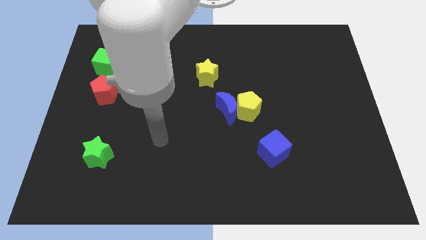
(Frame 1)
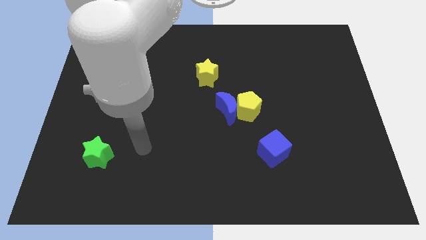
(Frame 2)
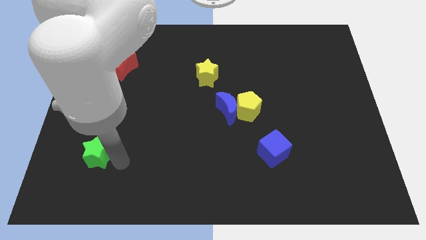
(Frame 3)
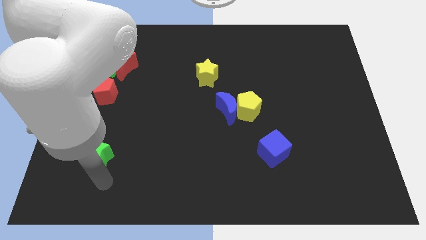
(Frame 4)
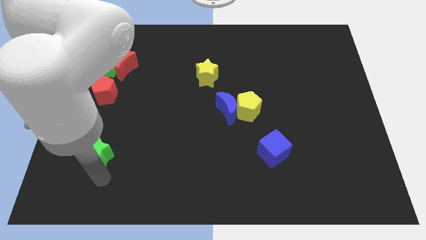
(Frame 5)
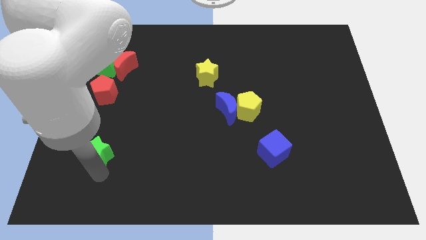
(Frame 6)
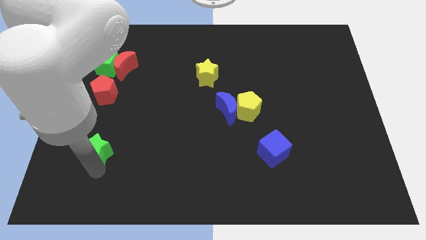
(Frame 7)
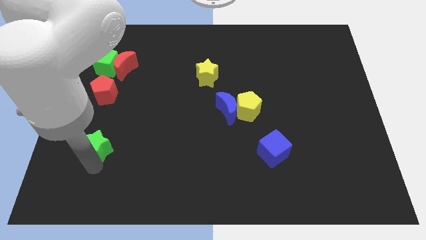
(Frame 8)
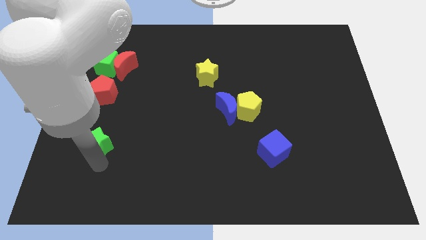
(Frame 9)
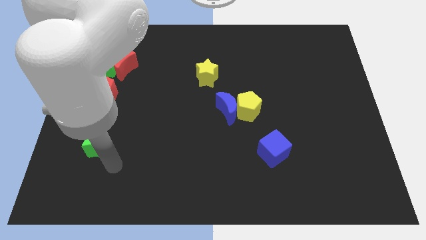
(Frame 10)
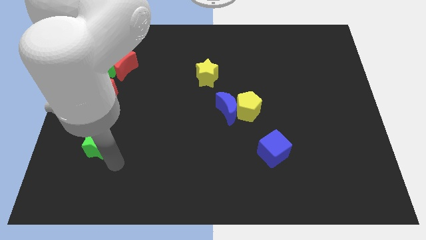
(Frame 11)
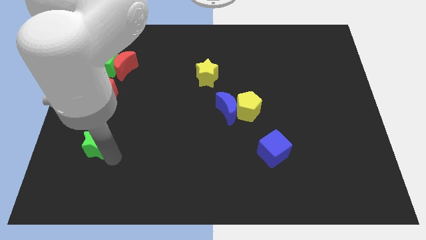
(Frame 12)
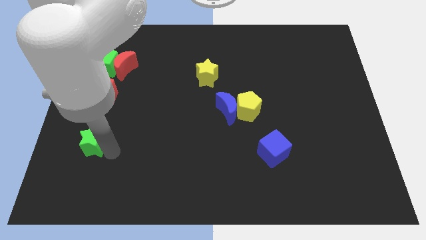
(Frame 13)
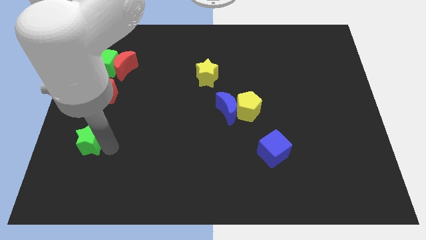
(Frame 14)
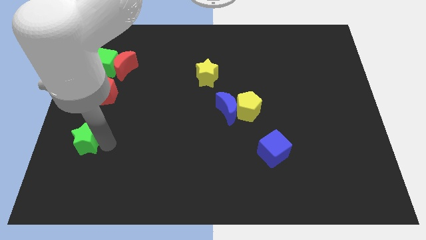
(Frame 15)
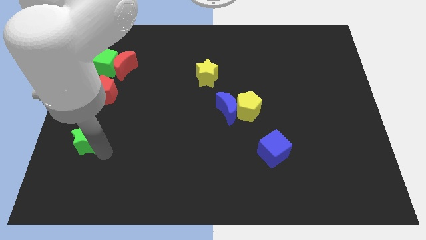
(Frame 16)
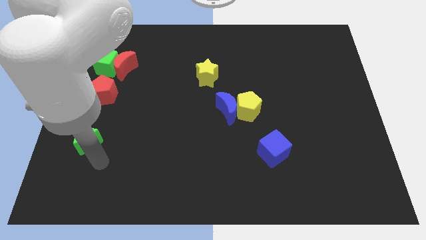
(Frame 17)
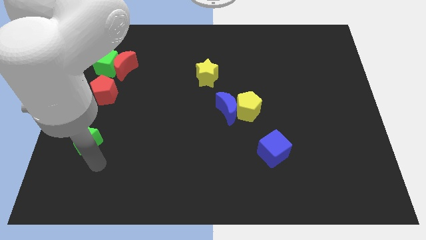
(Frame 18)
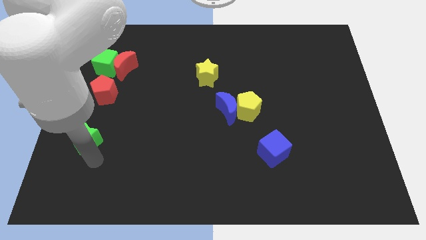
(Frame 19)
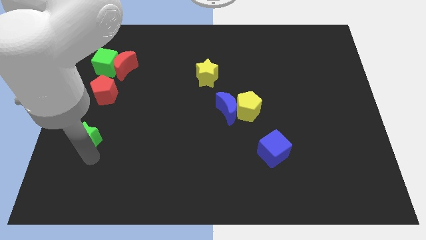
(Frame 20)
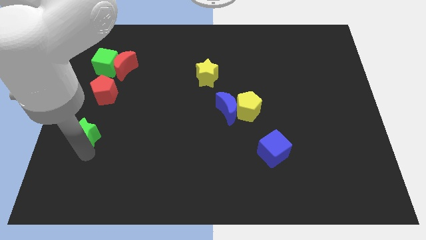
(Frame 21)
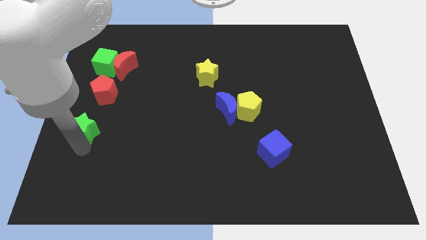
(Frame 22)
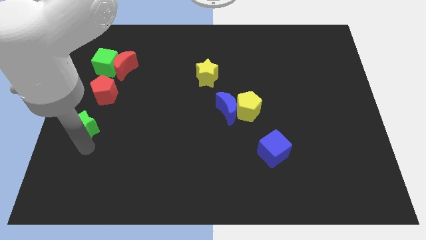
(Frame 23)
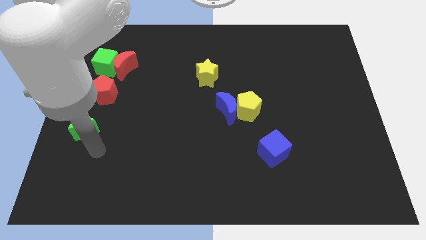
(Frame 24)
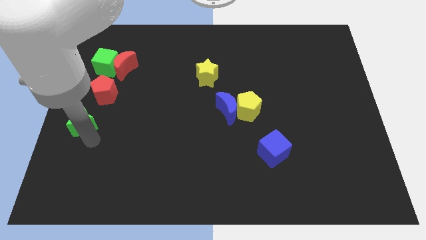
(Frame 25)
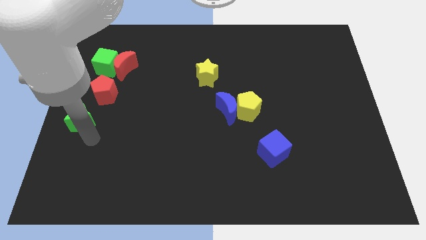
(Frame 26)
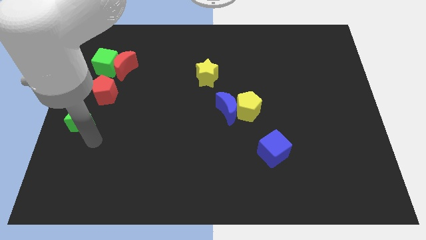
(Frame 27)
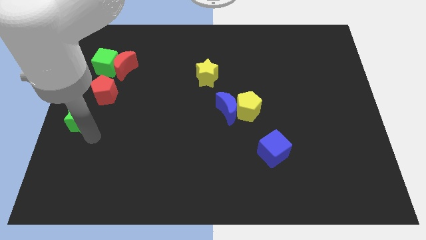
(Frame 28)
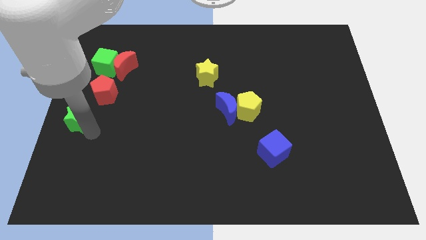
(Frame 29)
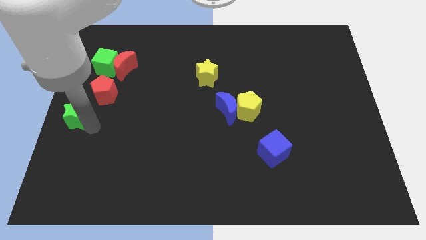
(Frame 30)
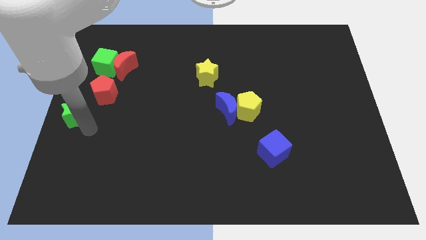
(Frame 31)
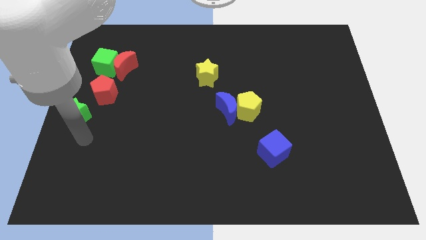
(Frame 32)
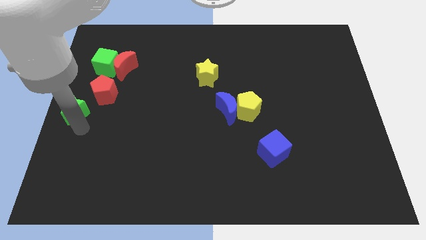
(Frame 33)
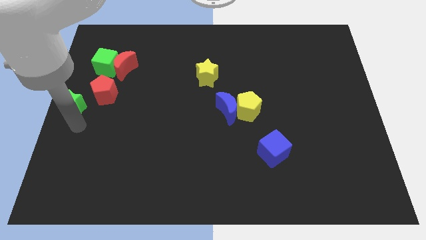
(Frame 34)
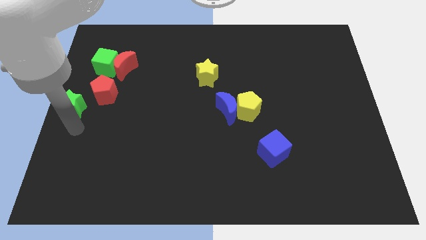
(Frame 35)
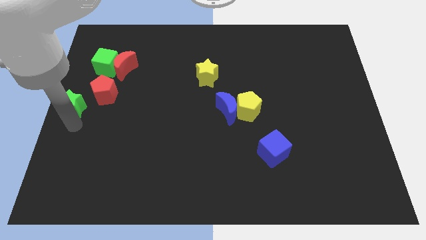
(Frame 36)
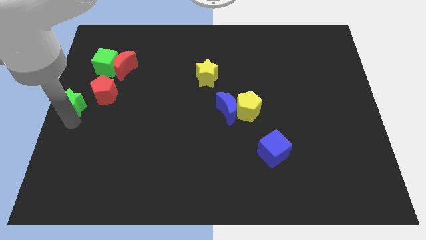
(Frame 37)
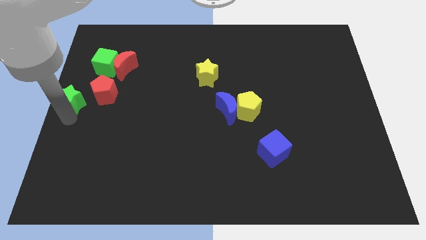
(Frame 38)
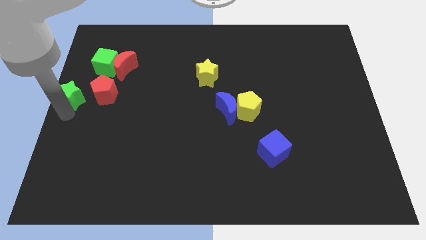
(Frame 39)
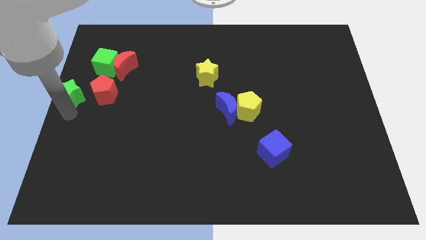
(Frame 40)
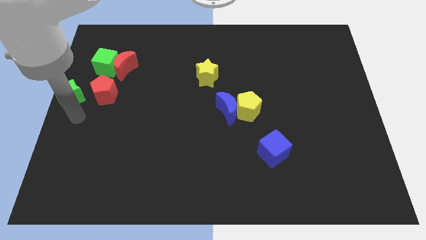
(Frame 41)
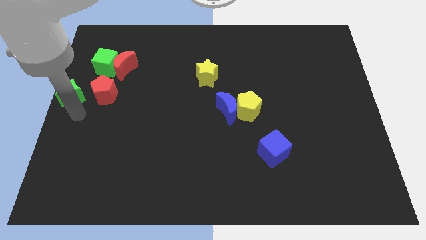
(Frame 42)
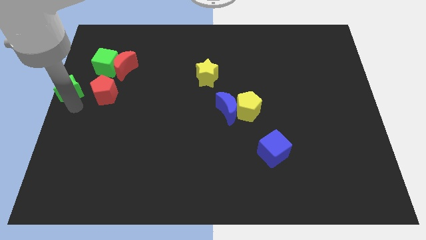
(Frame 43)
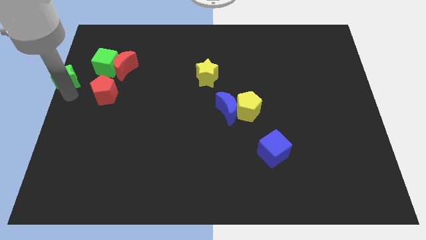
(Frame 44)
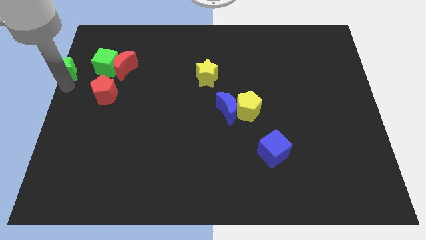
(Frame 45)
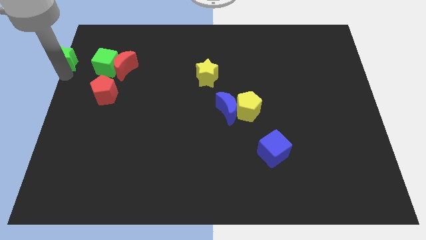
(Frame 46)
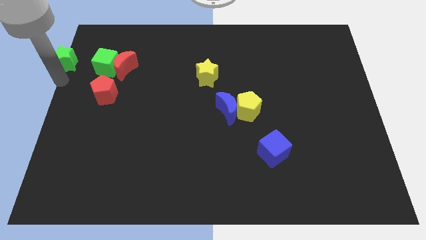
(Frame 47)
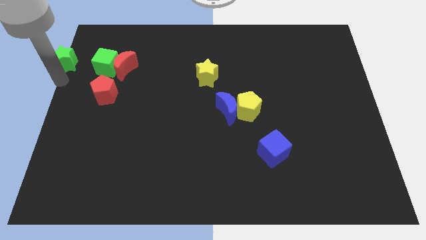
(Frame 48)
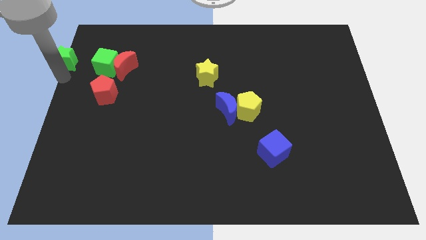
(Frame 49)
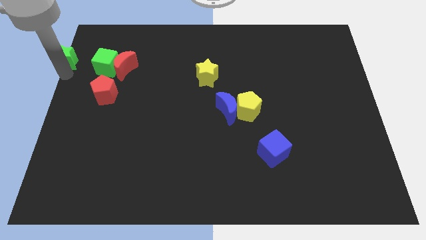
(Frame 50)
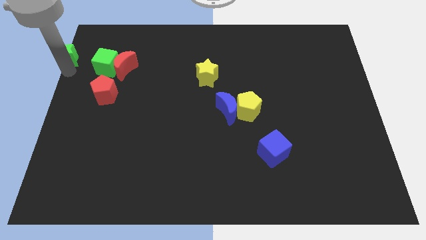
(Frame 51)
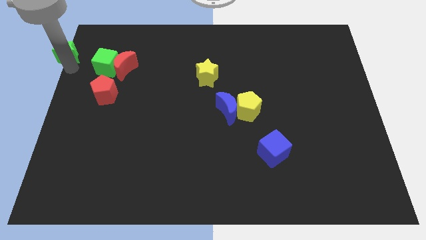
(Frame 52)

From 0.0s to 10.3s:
put the green star to the top left

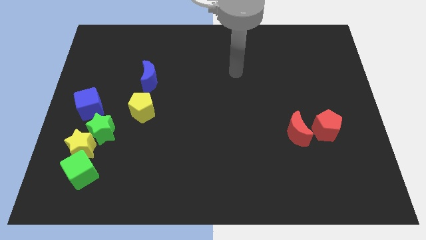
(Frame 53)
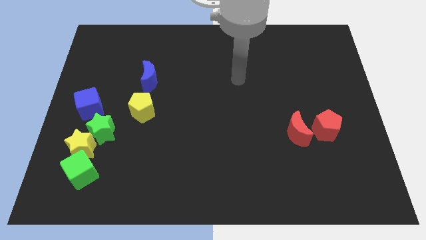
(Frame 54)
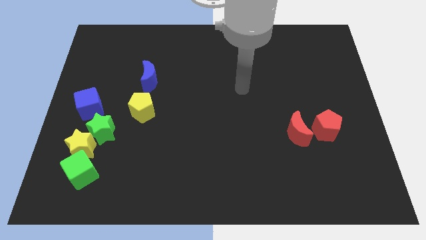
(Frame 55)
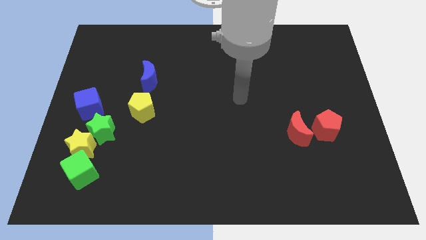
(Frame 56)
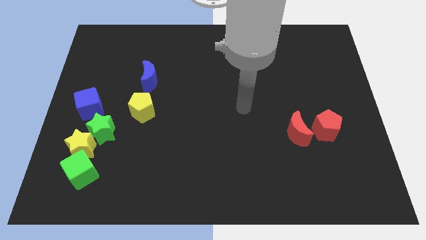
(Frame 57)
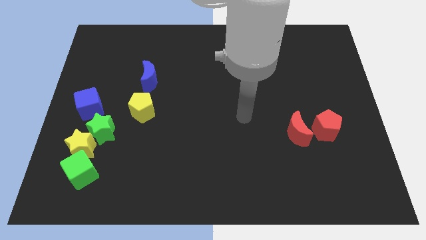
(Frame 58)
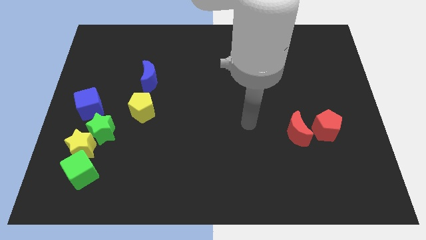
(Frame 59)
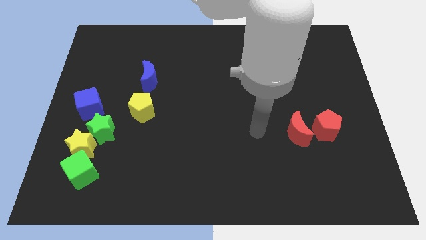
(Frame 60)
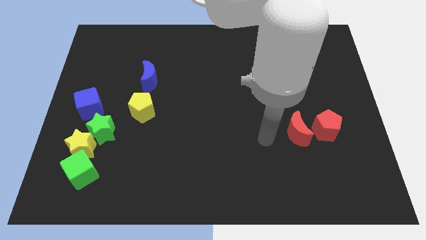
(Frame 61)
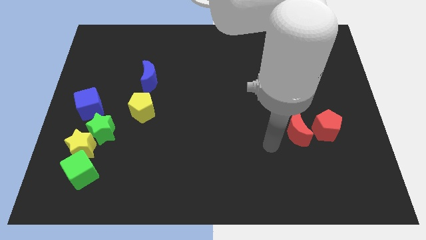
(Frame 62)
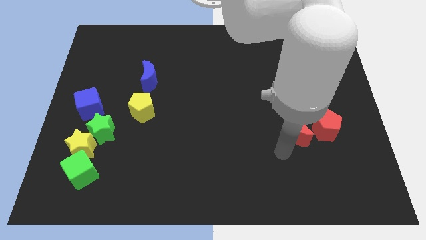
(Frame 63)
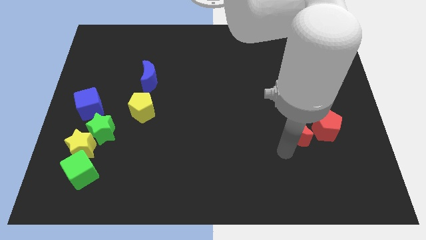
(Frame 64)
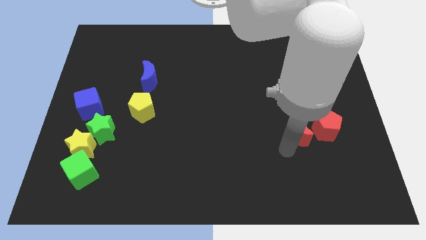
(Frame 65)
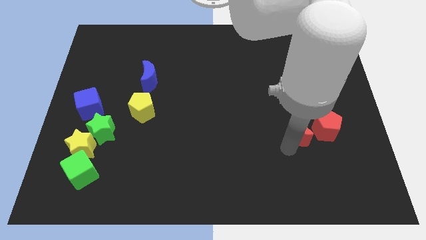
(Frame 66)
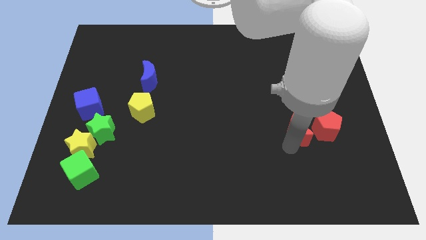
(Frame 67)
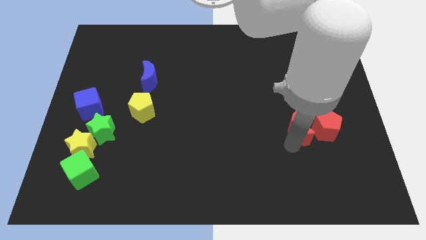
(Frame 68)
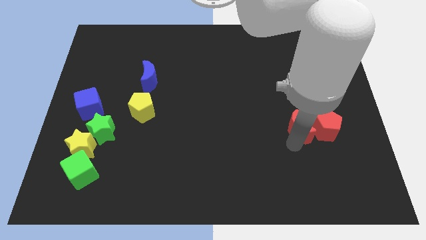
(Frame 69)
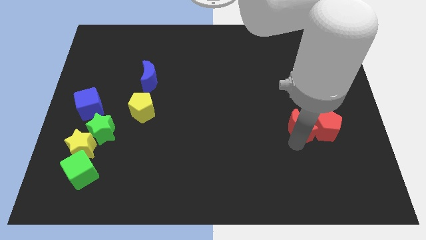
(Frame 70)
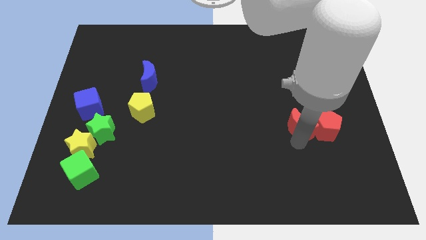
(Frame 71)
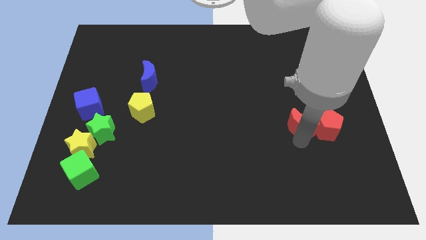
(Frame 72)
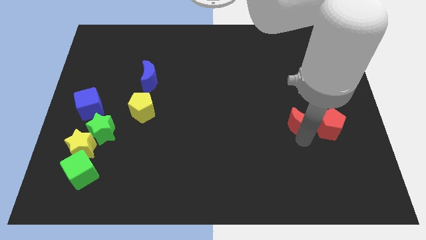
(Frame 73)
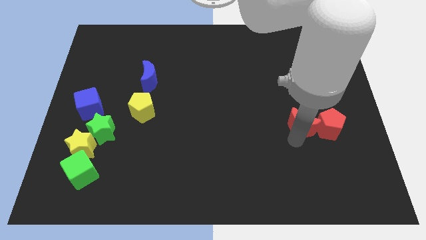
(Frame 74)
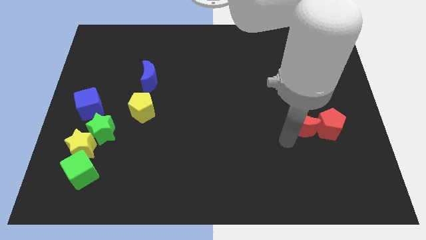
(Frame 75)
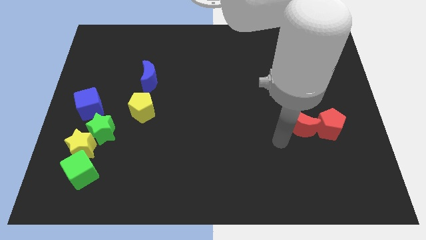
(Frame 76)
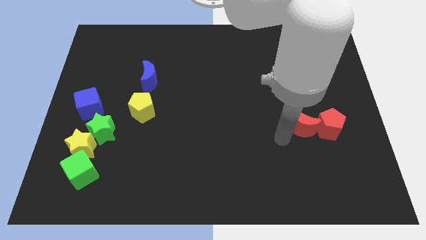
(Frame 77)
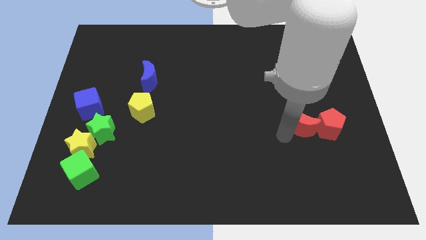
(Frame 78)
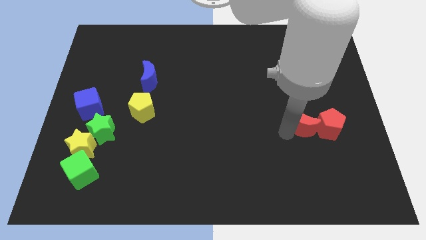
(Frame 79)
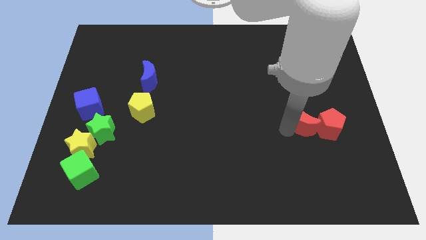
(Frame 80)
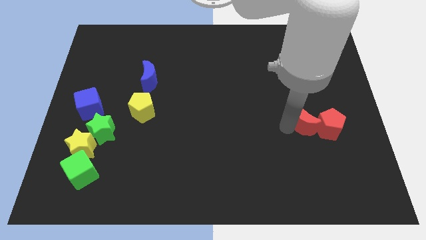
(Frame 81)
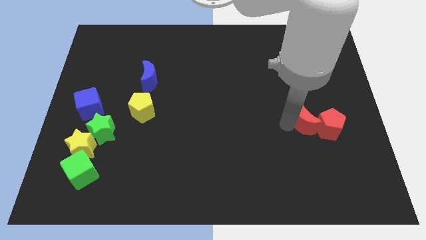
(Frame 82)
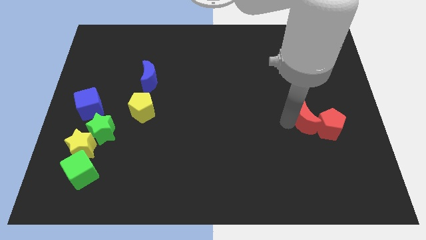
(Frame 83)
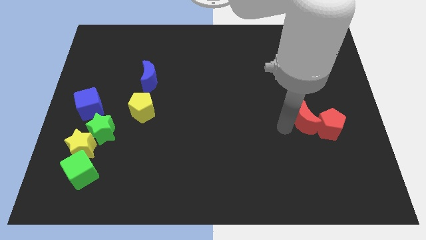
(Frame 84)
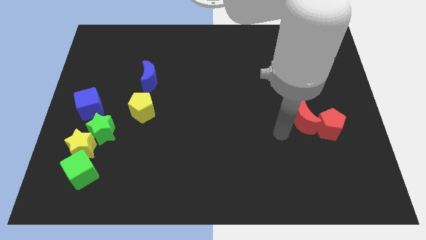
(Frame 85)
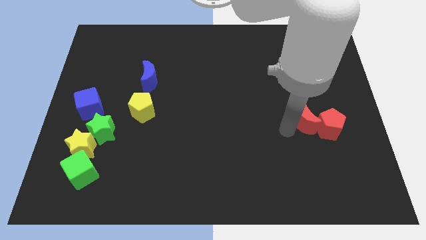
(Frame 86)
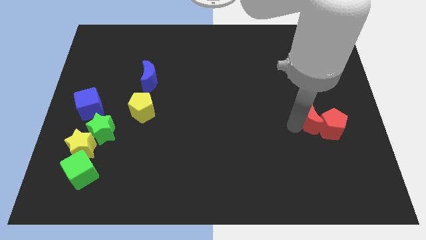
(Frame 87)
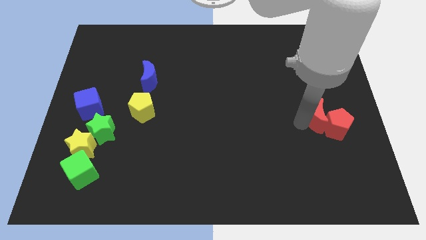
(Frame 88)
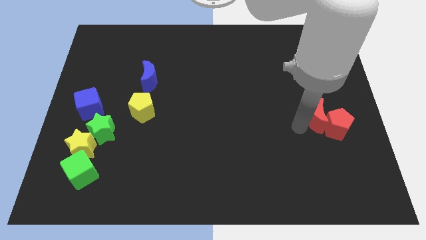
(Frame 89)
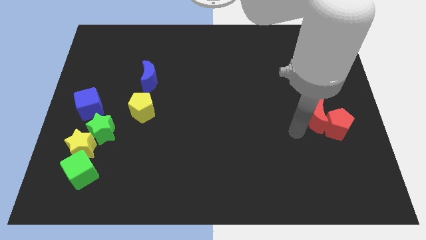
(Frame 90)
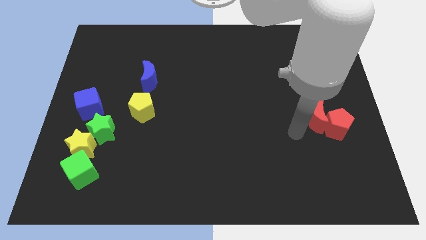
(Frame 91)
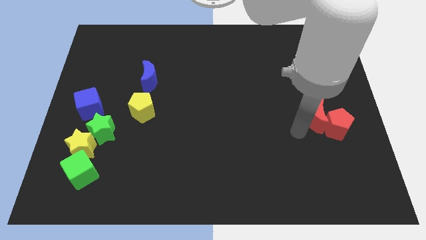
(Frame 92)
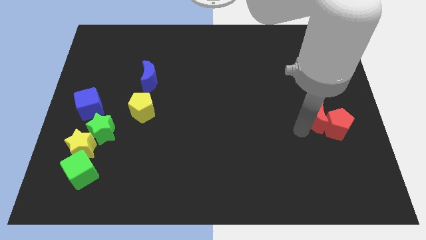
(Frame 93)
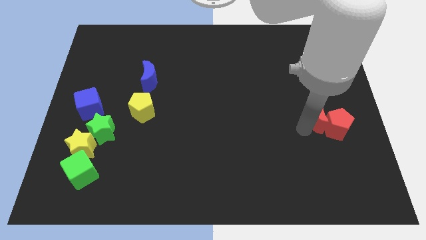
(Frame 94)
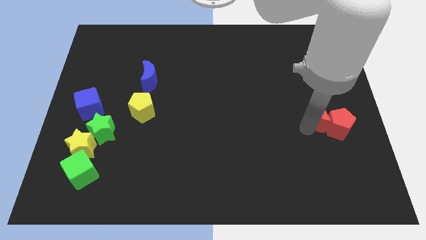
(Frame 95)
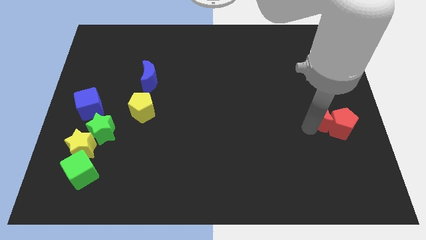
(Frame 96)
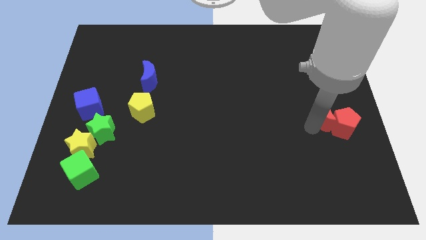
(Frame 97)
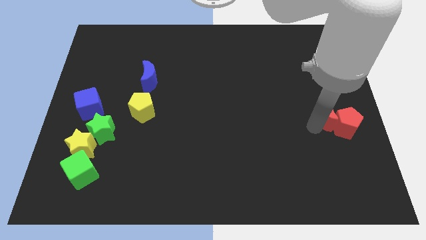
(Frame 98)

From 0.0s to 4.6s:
put the red moon to the center right
